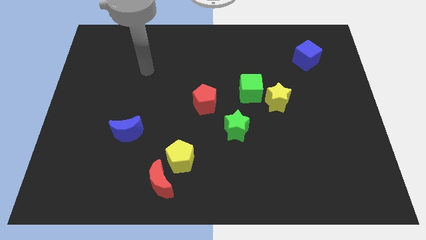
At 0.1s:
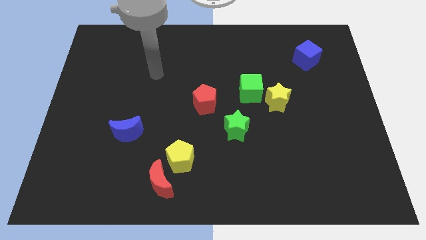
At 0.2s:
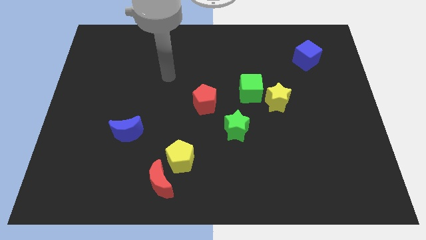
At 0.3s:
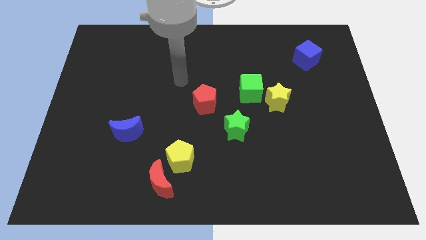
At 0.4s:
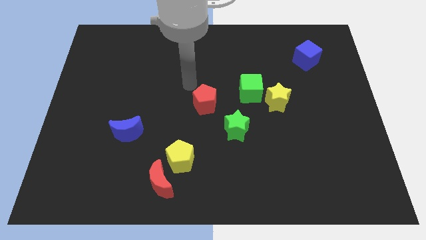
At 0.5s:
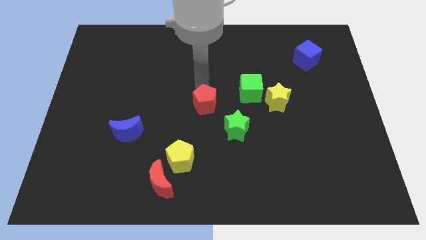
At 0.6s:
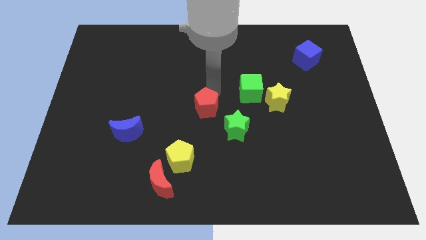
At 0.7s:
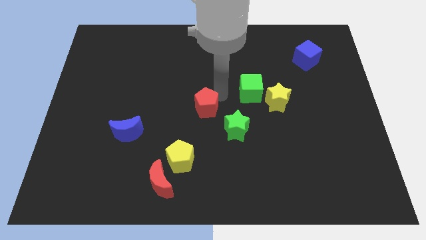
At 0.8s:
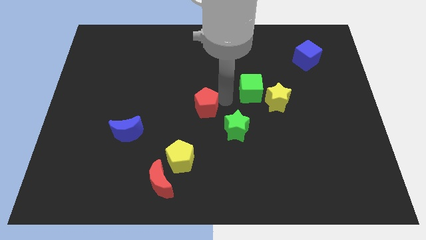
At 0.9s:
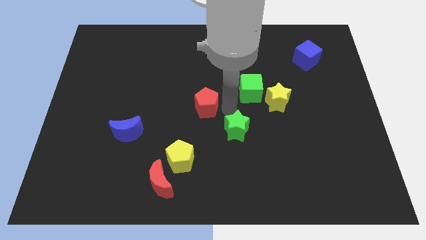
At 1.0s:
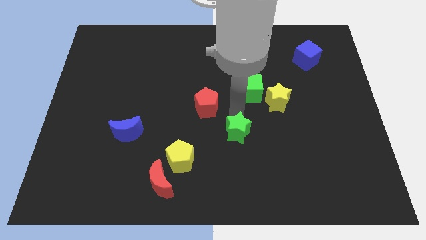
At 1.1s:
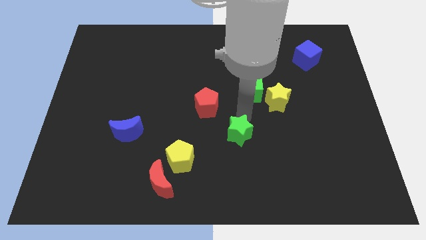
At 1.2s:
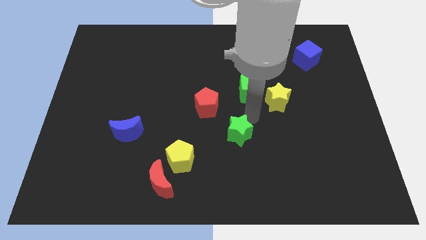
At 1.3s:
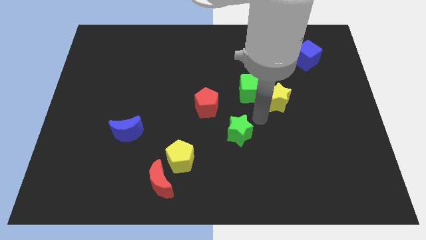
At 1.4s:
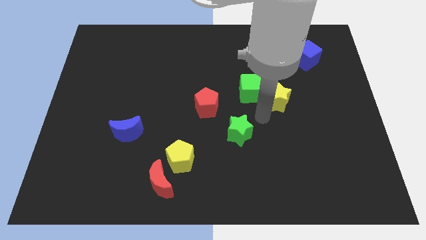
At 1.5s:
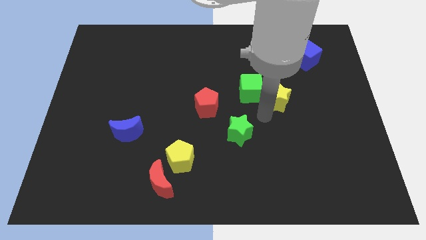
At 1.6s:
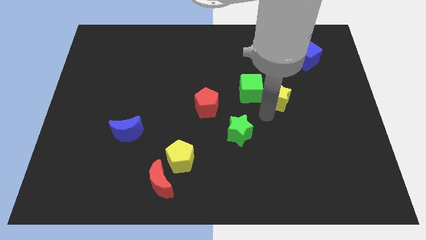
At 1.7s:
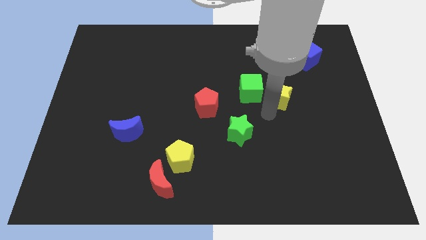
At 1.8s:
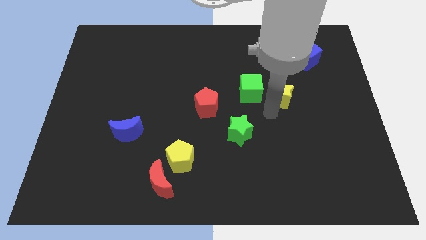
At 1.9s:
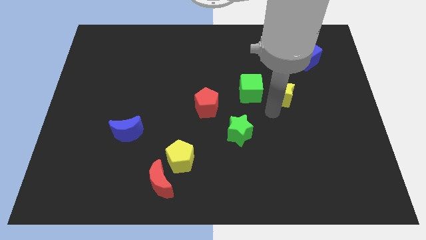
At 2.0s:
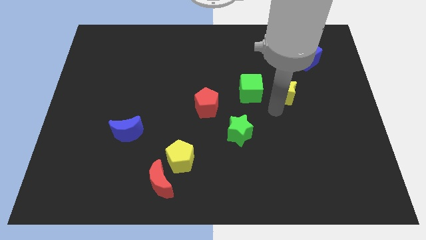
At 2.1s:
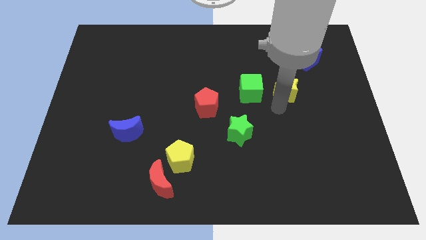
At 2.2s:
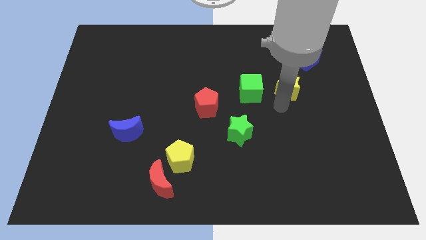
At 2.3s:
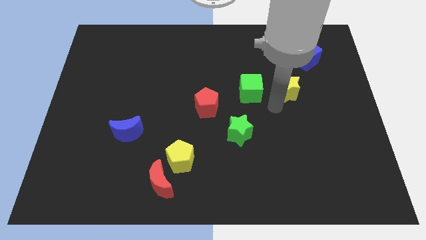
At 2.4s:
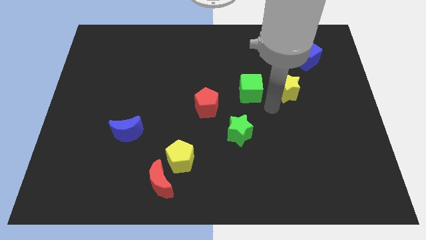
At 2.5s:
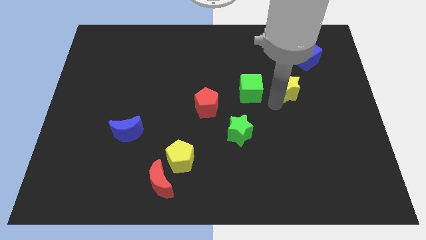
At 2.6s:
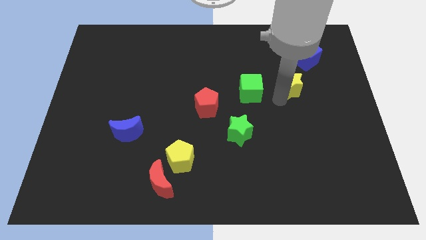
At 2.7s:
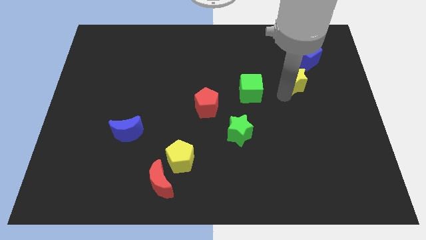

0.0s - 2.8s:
slightly slide the yellow star upwards and right

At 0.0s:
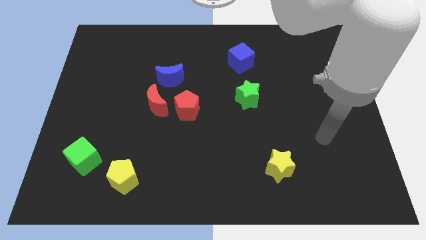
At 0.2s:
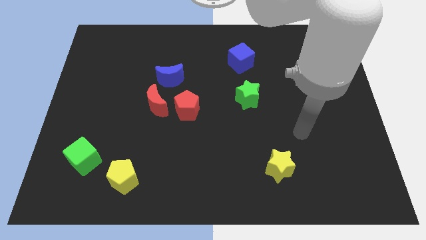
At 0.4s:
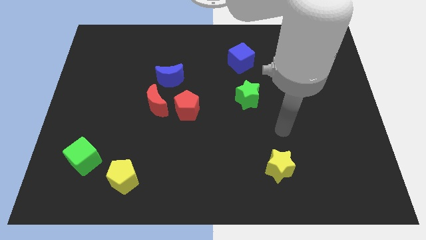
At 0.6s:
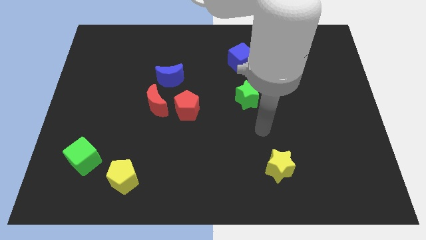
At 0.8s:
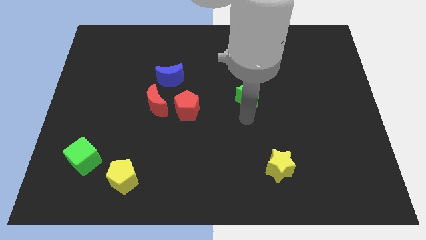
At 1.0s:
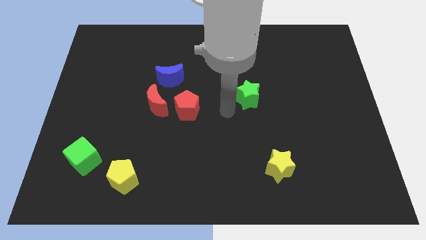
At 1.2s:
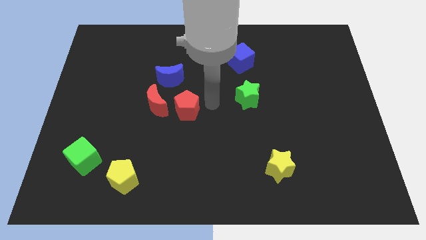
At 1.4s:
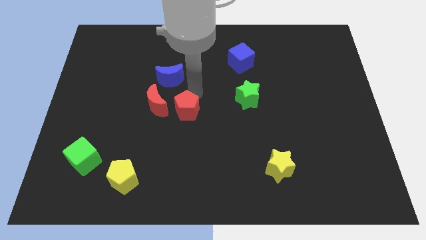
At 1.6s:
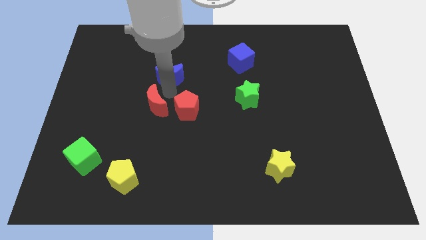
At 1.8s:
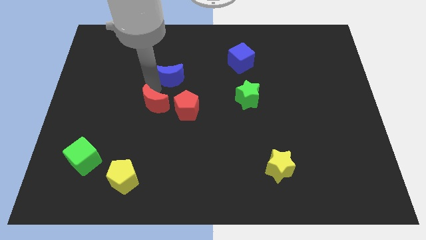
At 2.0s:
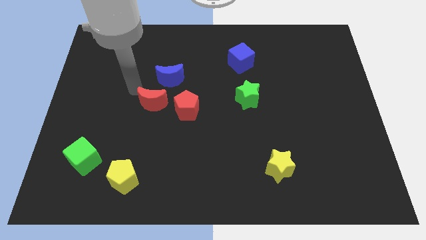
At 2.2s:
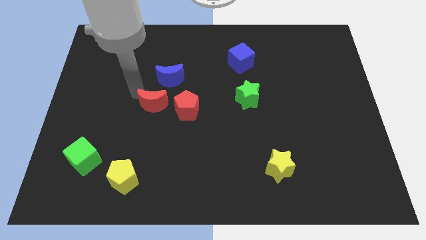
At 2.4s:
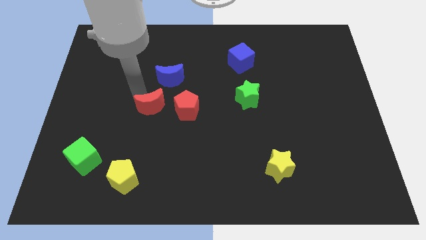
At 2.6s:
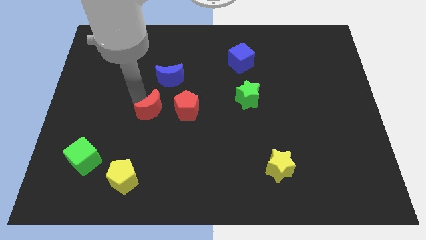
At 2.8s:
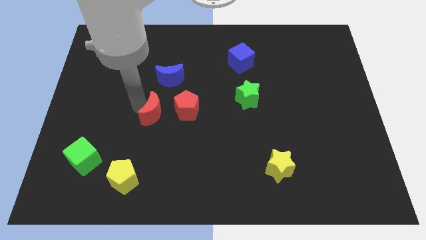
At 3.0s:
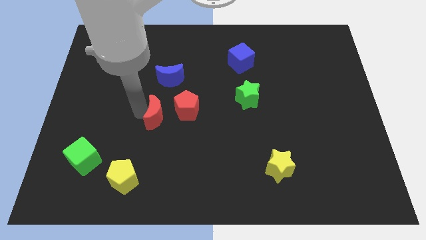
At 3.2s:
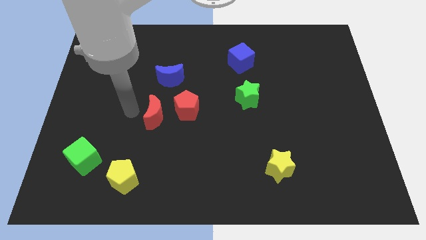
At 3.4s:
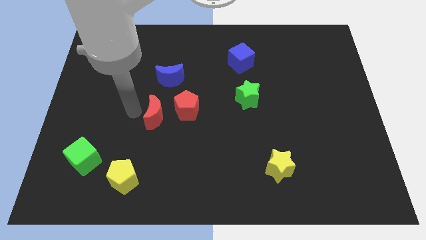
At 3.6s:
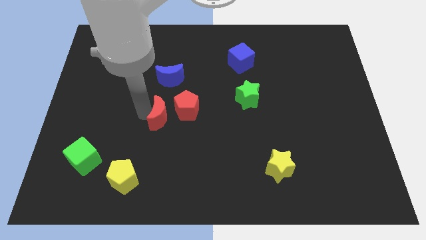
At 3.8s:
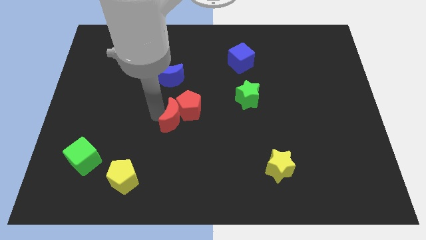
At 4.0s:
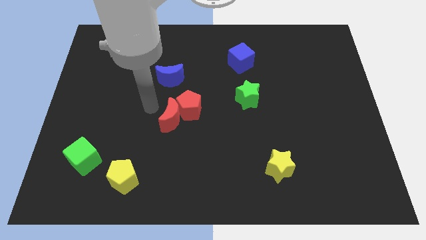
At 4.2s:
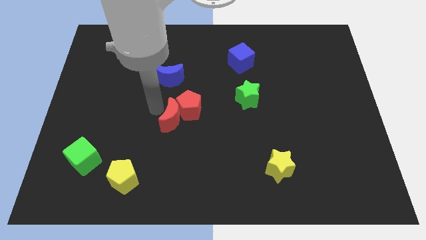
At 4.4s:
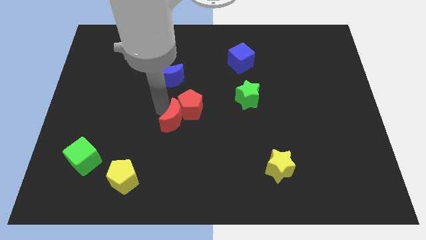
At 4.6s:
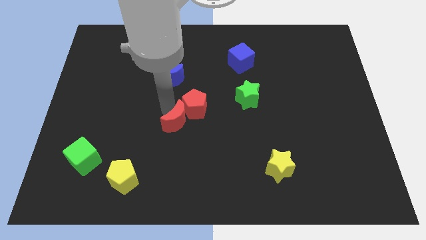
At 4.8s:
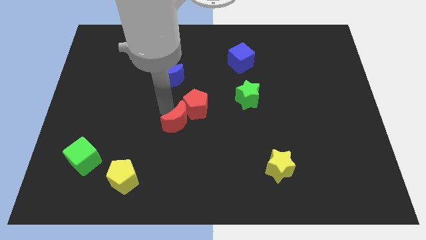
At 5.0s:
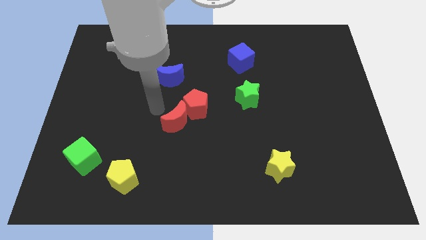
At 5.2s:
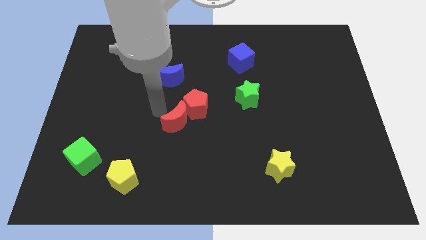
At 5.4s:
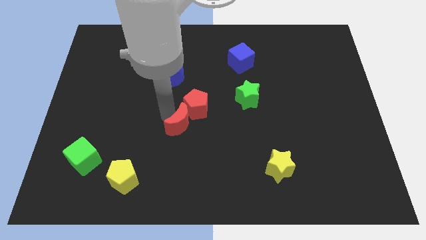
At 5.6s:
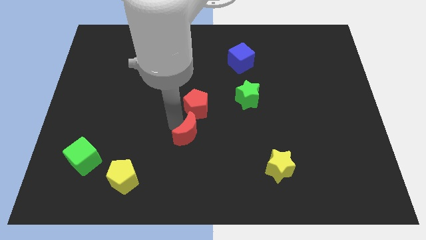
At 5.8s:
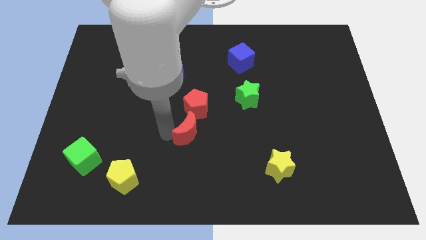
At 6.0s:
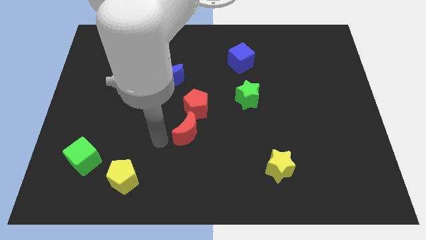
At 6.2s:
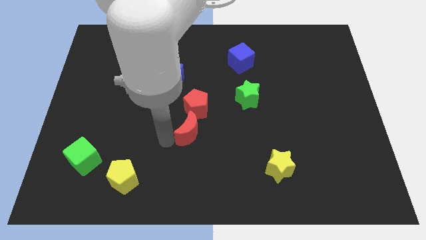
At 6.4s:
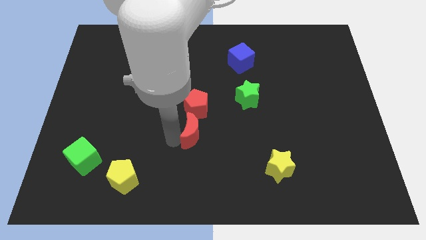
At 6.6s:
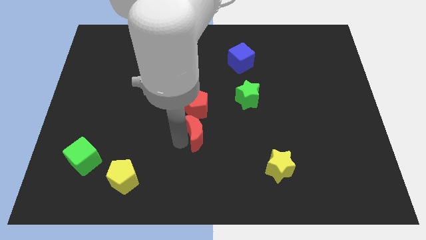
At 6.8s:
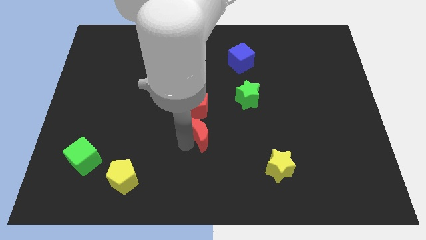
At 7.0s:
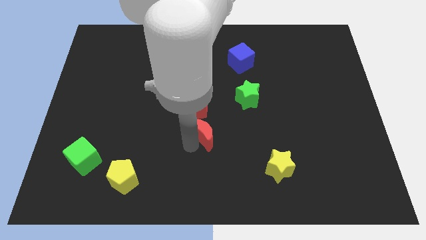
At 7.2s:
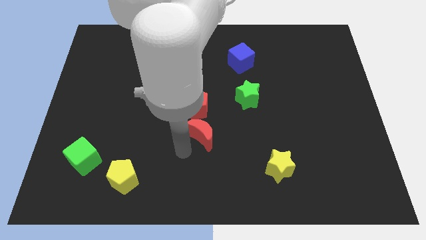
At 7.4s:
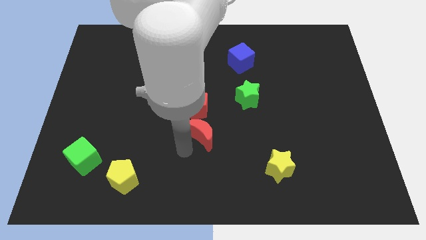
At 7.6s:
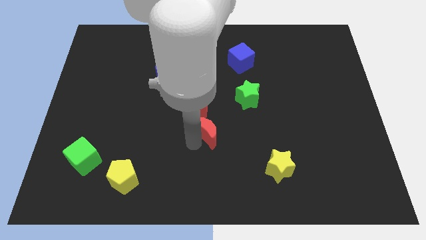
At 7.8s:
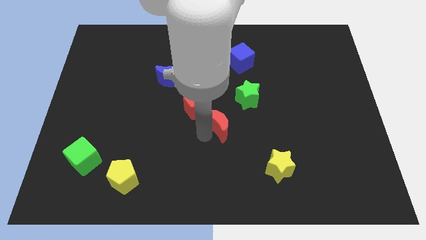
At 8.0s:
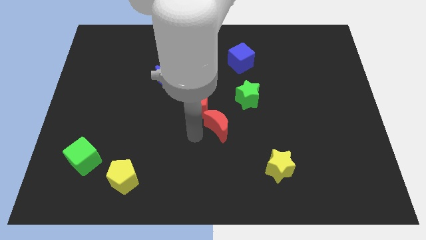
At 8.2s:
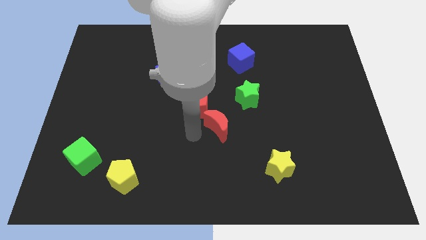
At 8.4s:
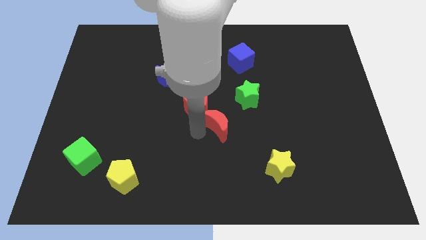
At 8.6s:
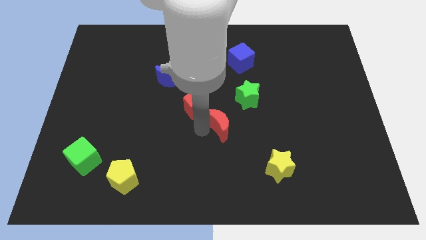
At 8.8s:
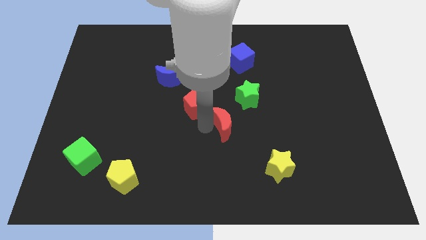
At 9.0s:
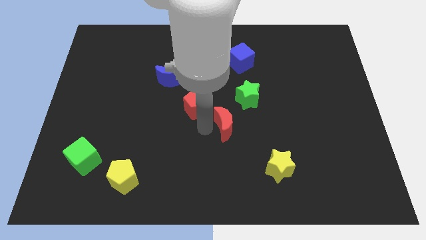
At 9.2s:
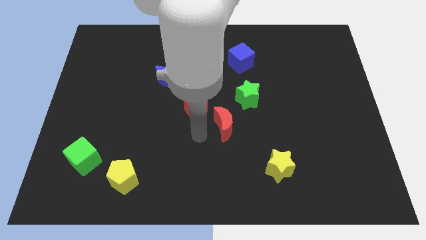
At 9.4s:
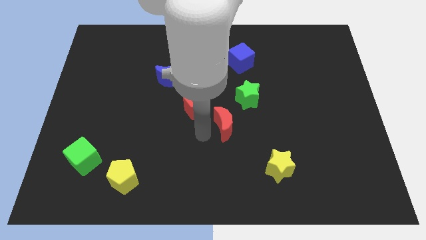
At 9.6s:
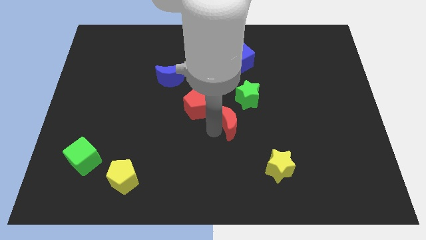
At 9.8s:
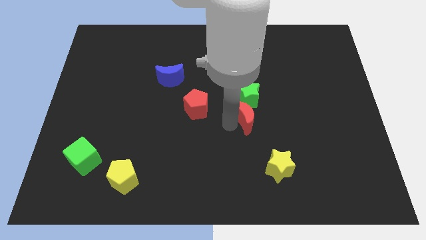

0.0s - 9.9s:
move the red moon right

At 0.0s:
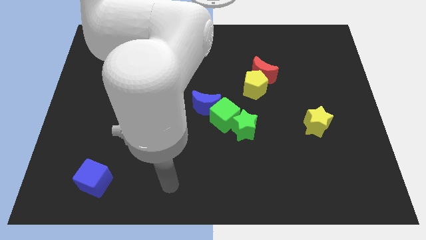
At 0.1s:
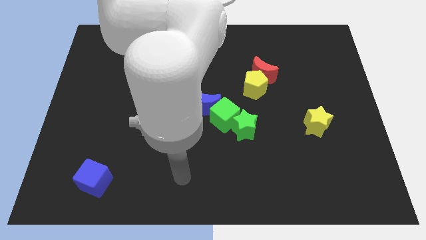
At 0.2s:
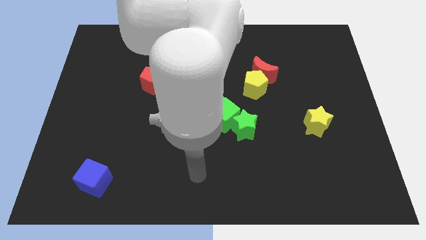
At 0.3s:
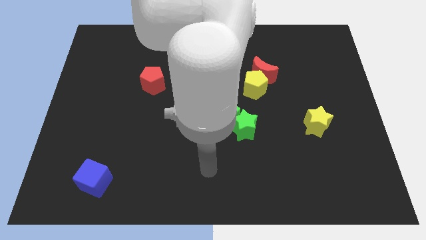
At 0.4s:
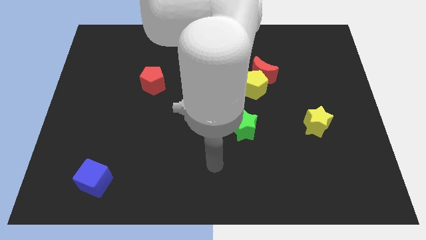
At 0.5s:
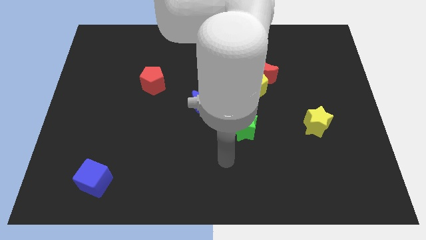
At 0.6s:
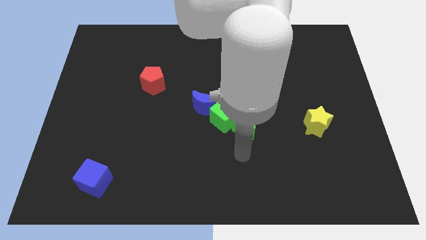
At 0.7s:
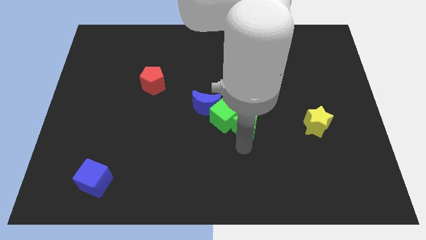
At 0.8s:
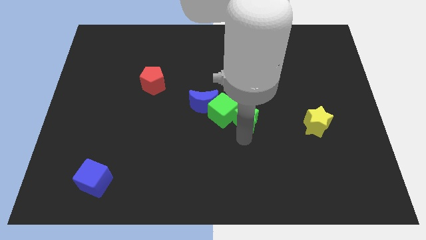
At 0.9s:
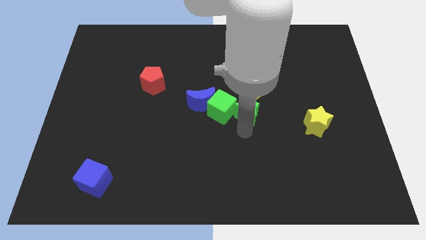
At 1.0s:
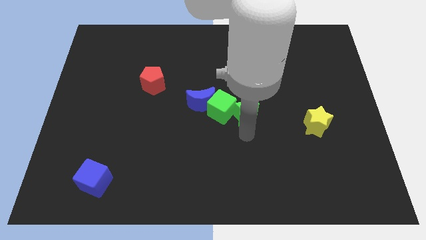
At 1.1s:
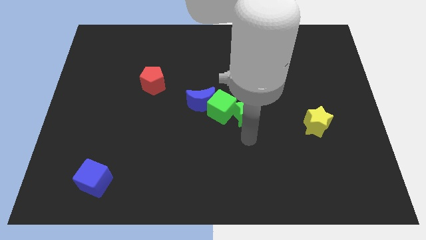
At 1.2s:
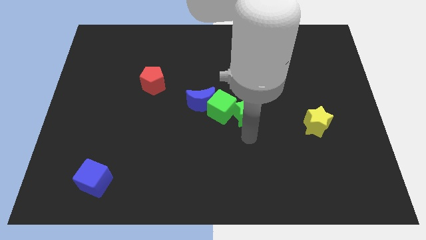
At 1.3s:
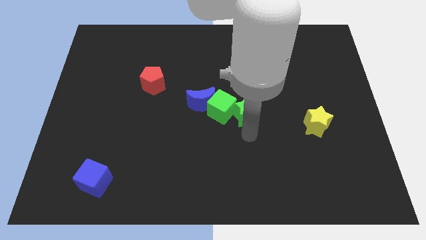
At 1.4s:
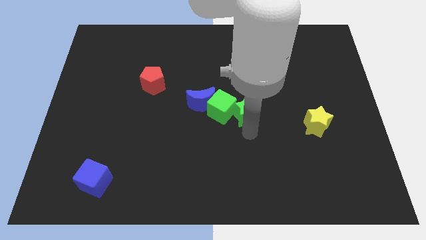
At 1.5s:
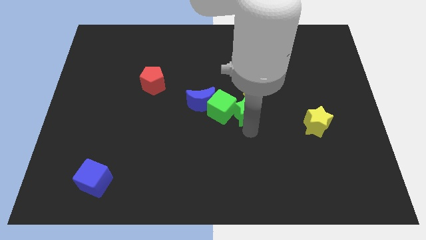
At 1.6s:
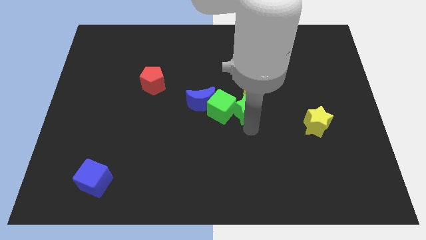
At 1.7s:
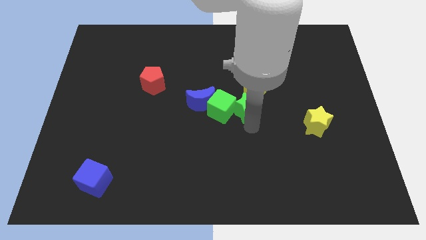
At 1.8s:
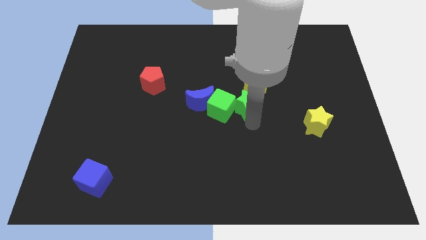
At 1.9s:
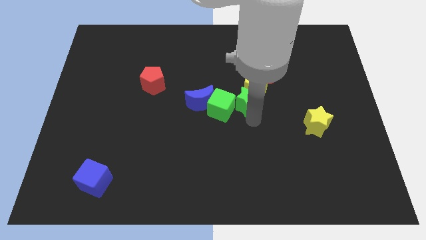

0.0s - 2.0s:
slightly move the green star up
